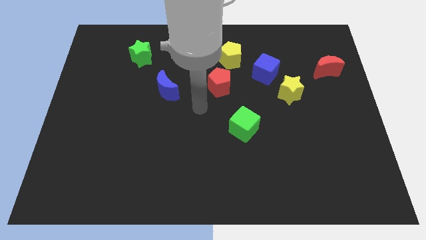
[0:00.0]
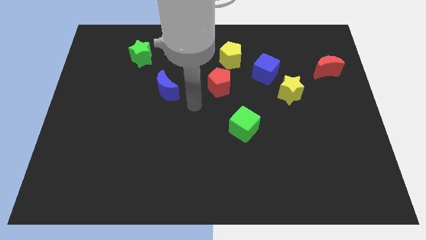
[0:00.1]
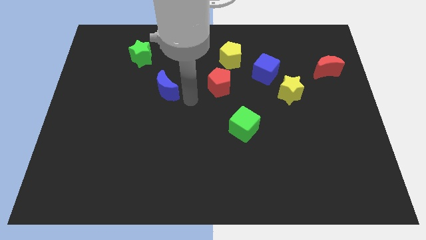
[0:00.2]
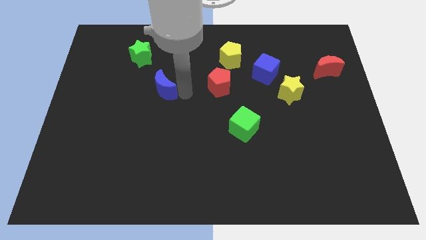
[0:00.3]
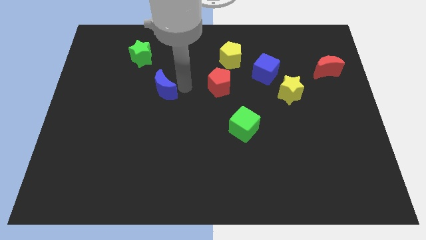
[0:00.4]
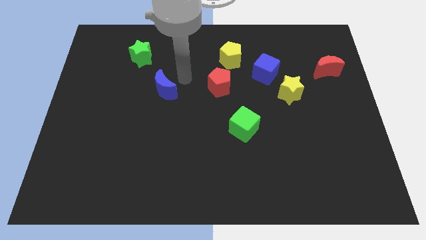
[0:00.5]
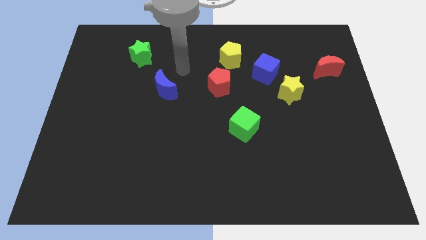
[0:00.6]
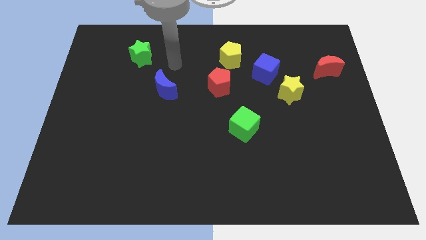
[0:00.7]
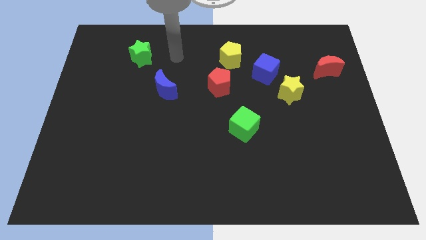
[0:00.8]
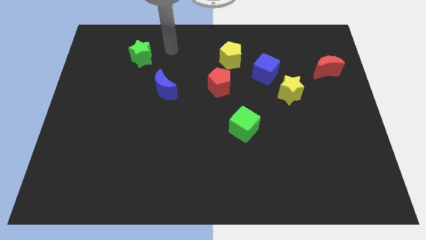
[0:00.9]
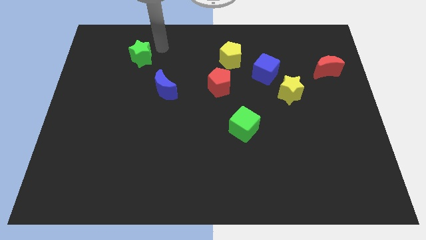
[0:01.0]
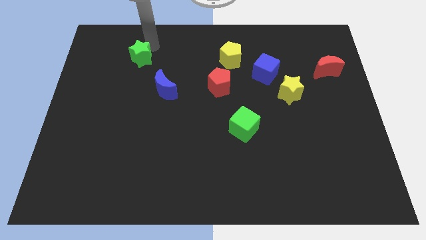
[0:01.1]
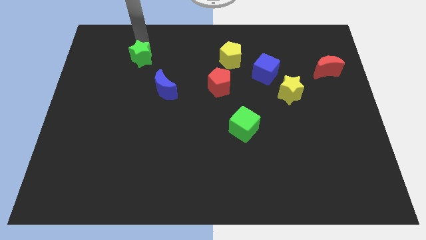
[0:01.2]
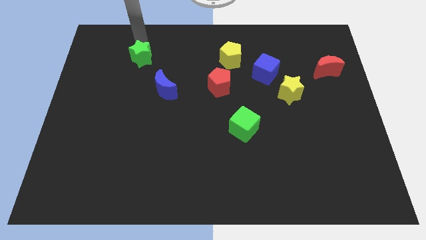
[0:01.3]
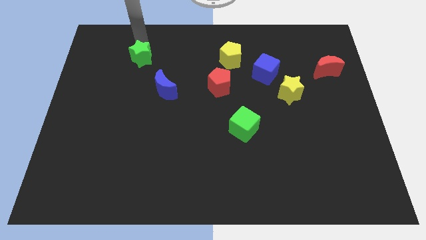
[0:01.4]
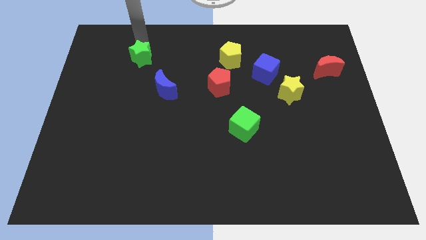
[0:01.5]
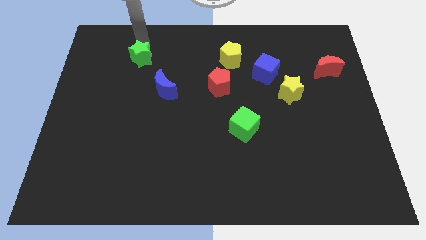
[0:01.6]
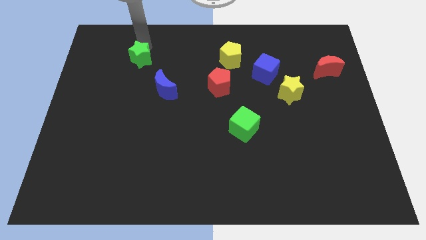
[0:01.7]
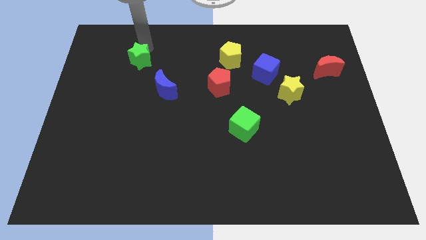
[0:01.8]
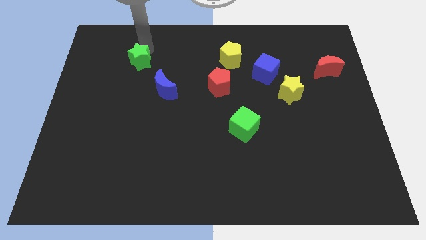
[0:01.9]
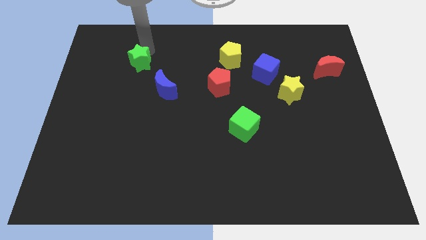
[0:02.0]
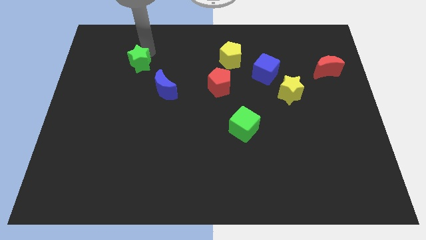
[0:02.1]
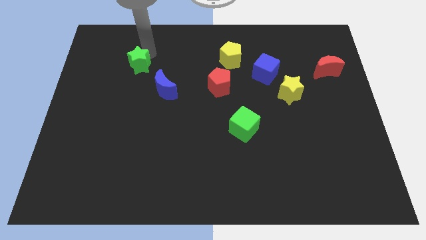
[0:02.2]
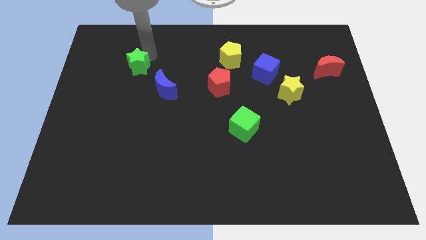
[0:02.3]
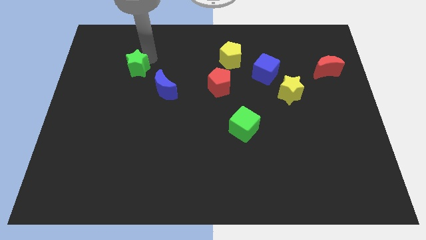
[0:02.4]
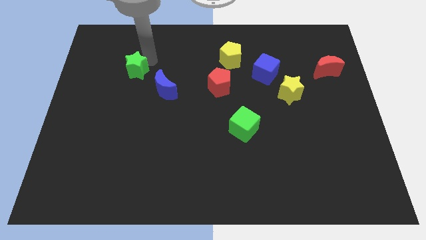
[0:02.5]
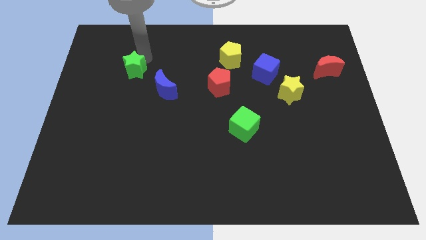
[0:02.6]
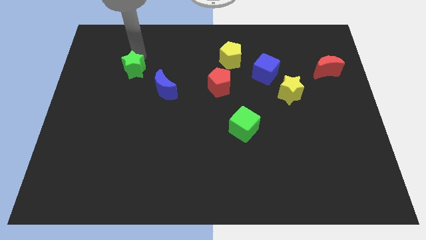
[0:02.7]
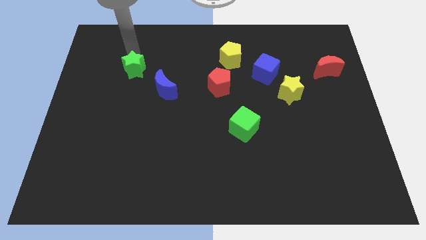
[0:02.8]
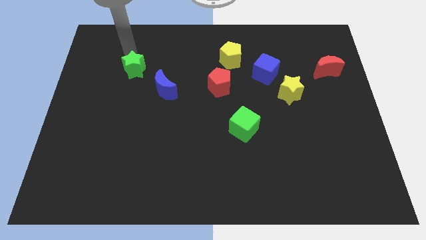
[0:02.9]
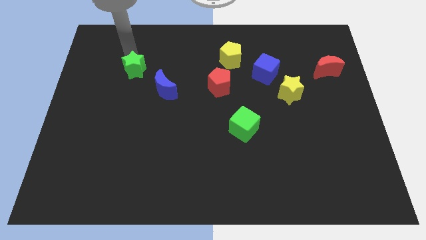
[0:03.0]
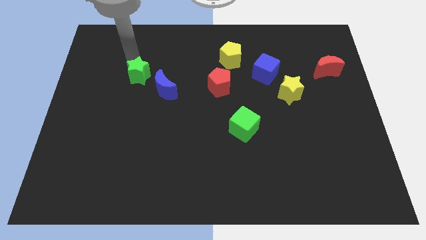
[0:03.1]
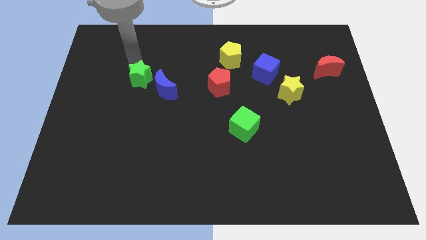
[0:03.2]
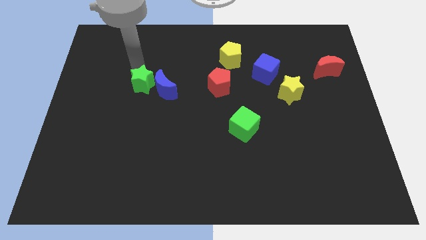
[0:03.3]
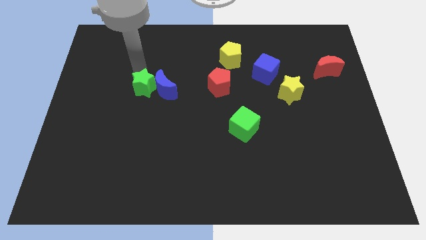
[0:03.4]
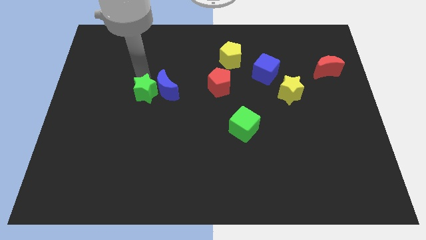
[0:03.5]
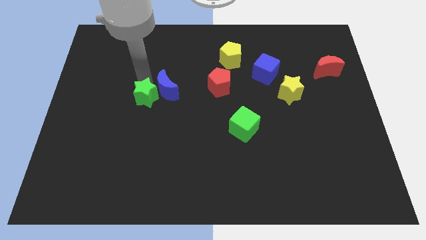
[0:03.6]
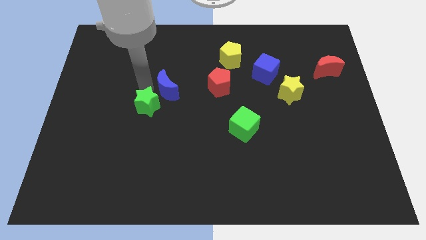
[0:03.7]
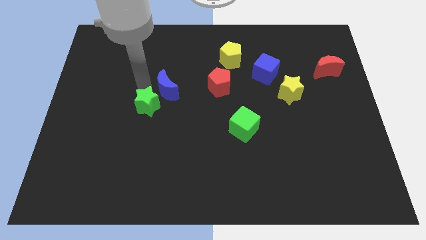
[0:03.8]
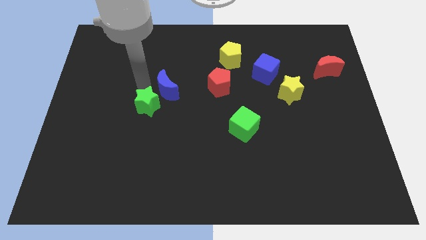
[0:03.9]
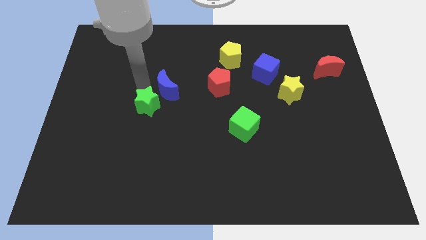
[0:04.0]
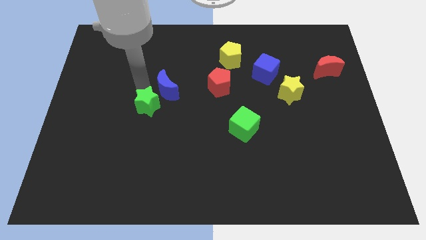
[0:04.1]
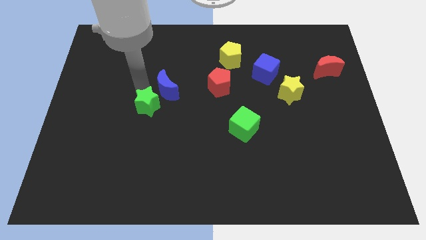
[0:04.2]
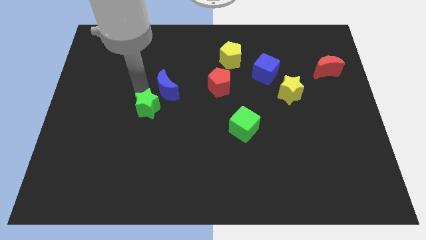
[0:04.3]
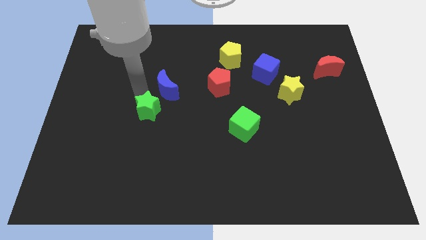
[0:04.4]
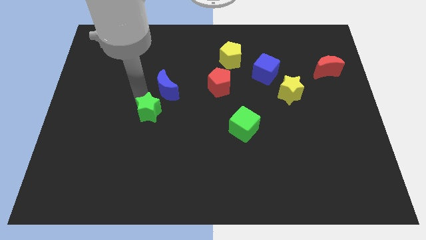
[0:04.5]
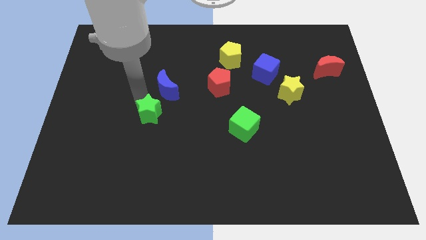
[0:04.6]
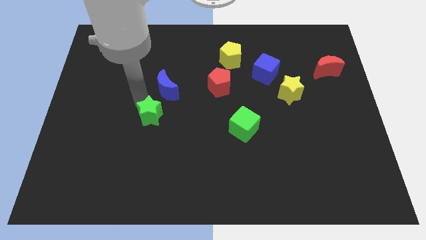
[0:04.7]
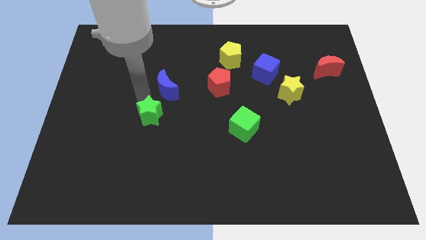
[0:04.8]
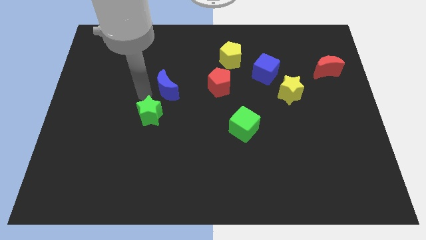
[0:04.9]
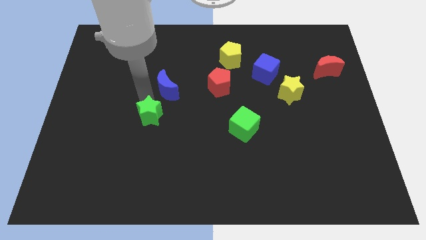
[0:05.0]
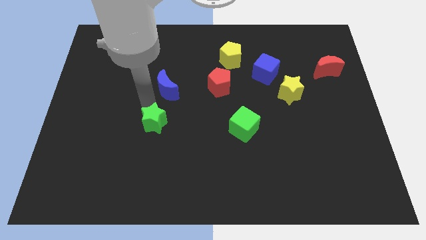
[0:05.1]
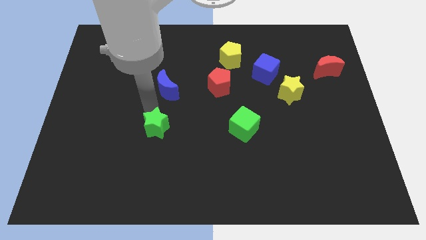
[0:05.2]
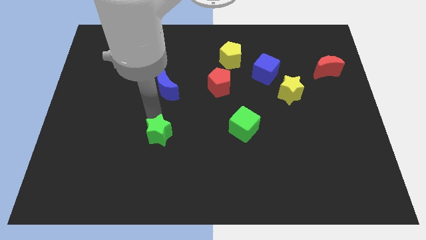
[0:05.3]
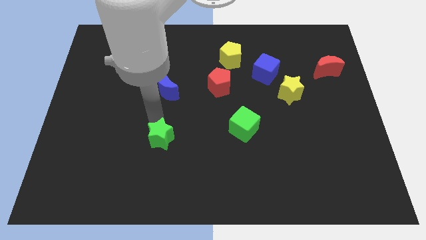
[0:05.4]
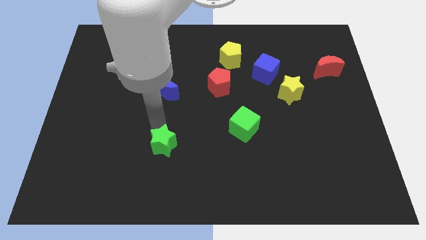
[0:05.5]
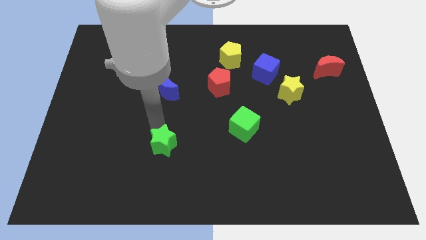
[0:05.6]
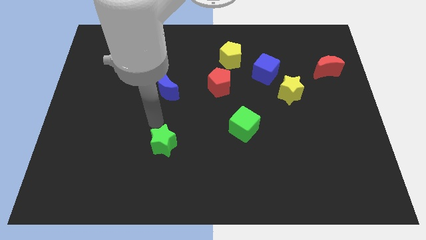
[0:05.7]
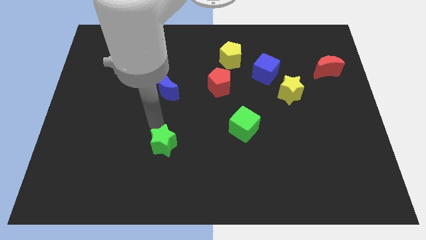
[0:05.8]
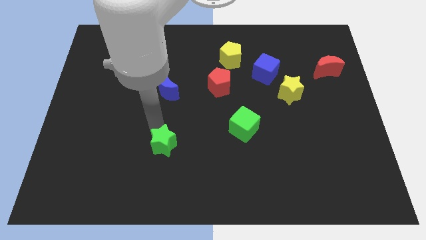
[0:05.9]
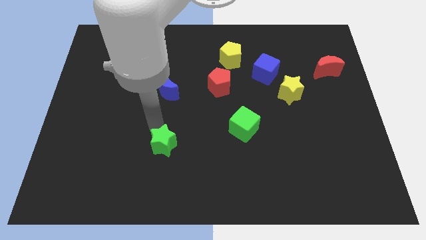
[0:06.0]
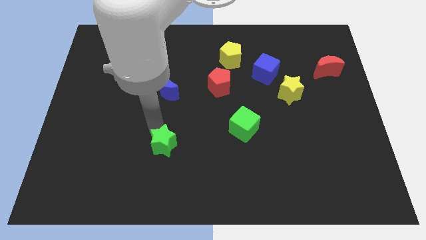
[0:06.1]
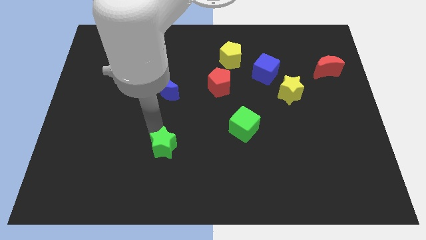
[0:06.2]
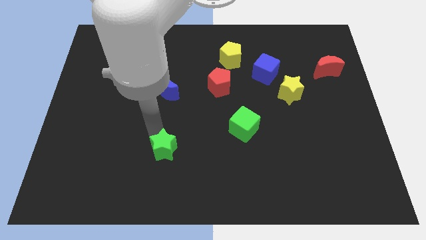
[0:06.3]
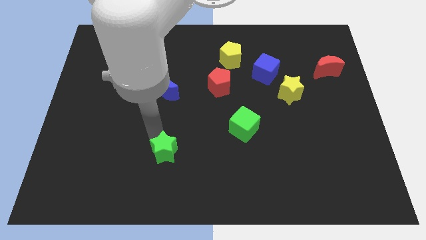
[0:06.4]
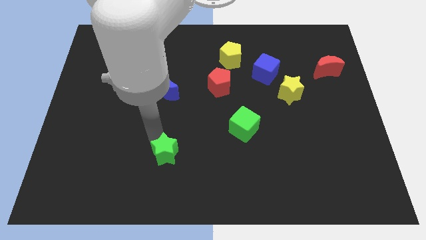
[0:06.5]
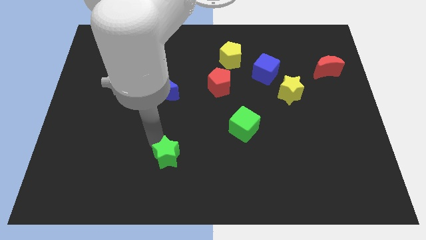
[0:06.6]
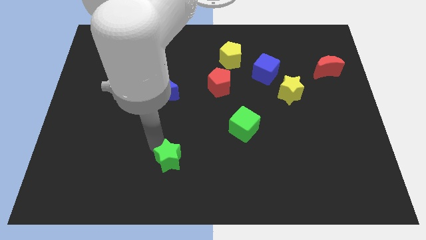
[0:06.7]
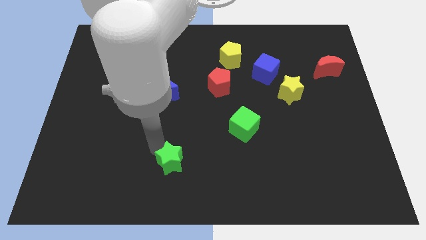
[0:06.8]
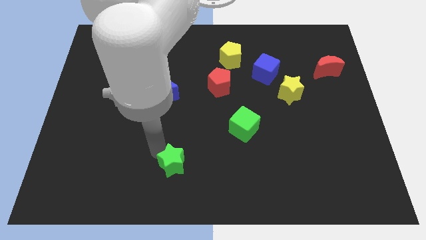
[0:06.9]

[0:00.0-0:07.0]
move the green star to the bottom

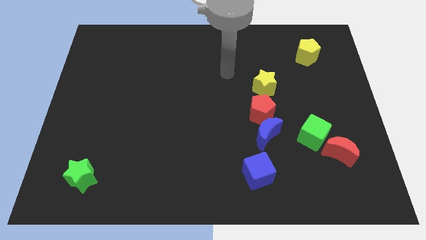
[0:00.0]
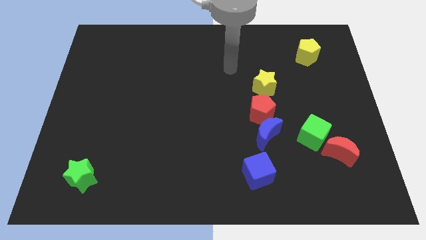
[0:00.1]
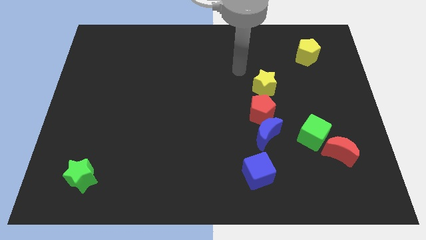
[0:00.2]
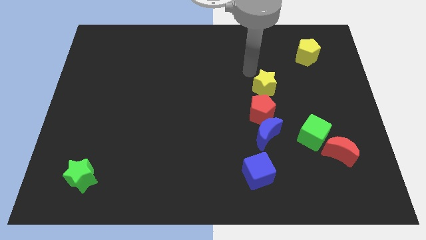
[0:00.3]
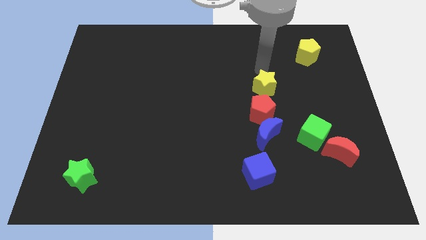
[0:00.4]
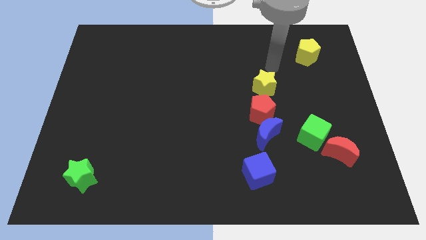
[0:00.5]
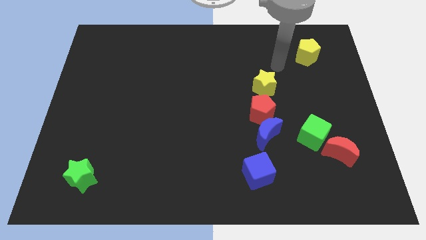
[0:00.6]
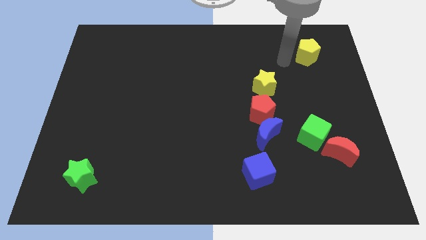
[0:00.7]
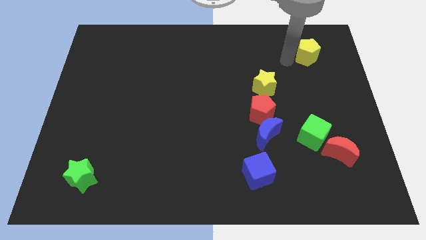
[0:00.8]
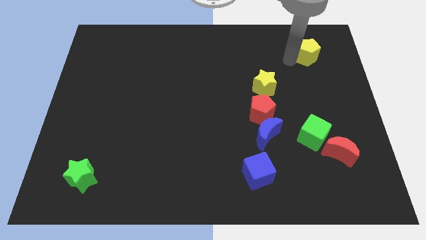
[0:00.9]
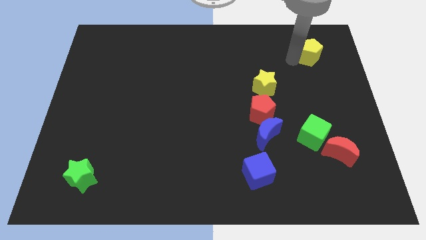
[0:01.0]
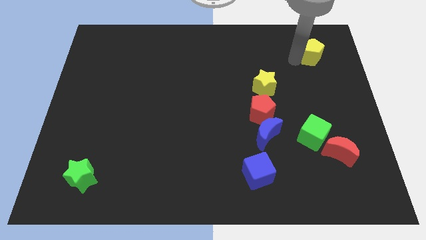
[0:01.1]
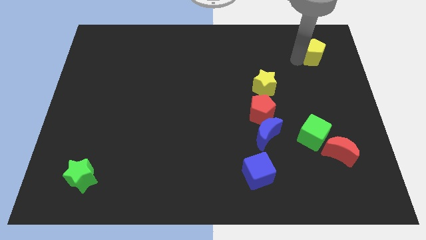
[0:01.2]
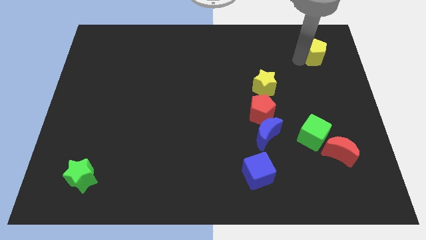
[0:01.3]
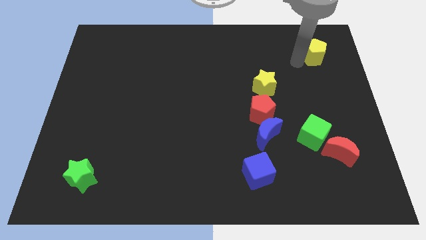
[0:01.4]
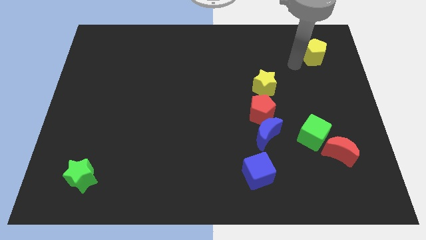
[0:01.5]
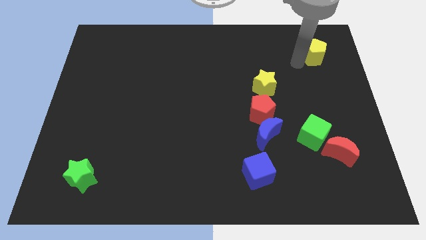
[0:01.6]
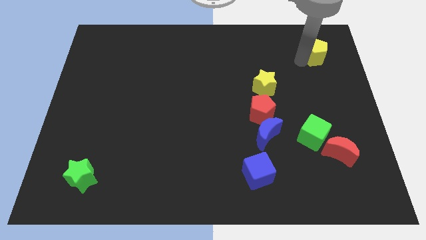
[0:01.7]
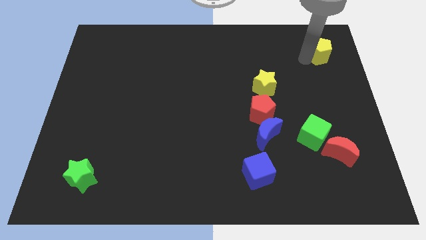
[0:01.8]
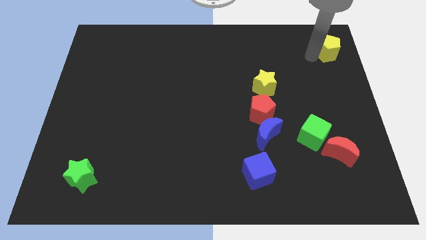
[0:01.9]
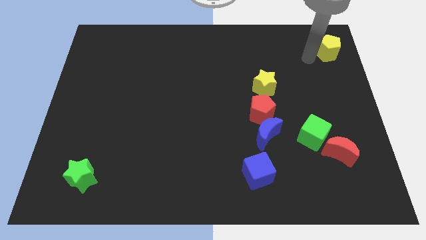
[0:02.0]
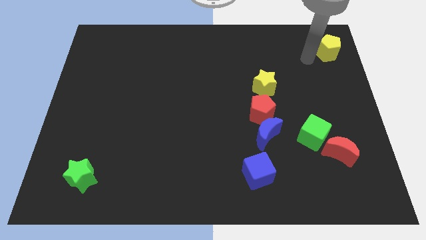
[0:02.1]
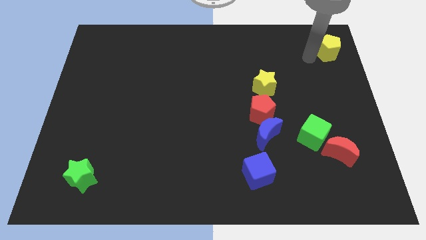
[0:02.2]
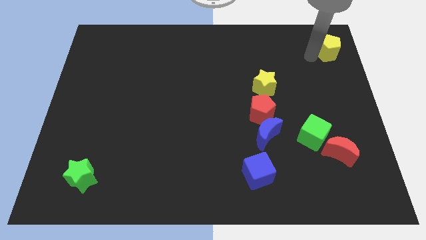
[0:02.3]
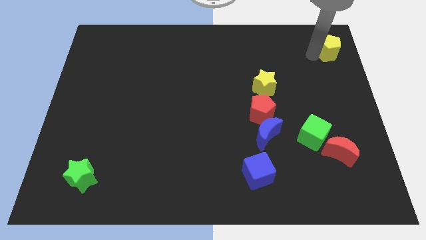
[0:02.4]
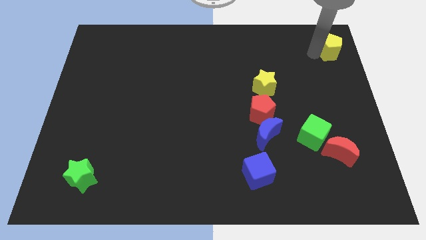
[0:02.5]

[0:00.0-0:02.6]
push the yellow pentagon to the top right corner
